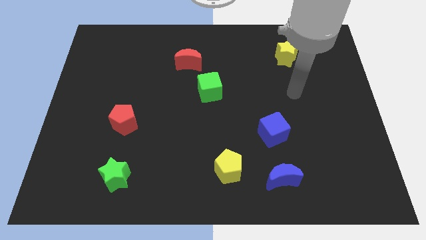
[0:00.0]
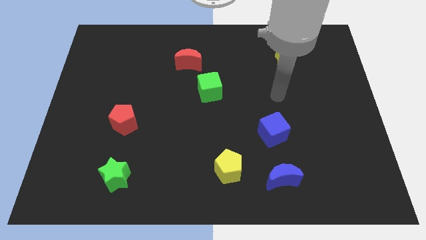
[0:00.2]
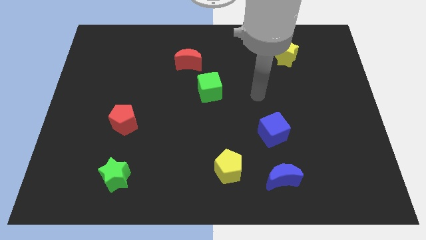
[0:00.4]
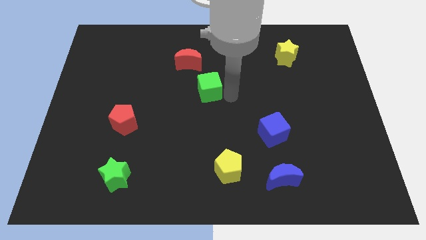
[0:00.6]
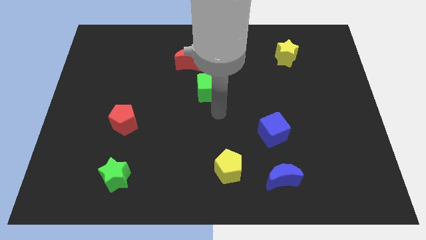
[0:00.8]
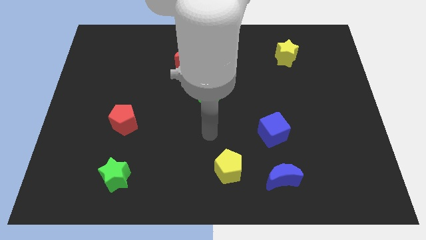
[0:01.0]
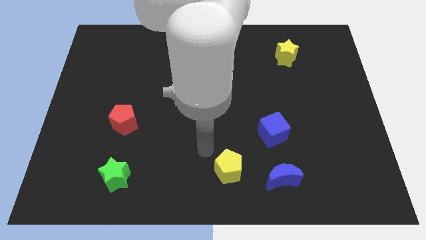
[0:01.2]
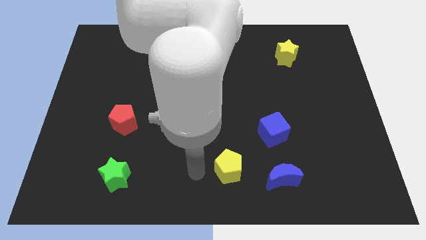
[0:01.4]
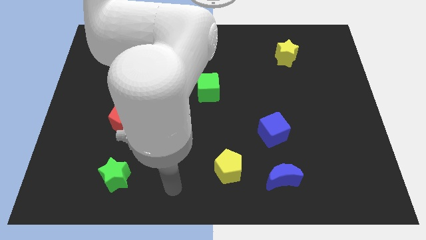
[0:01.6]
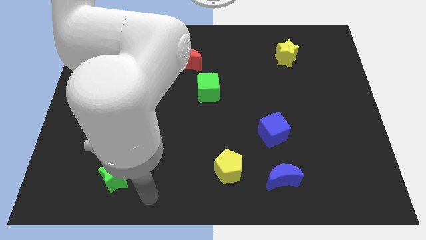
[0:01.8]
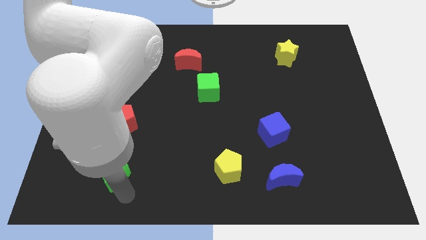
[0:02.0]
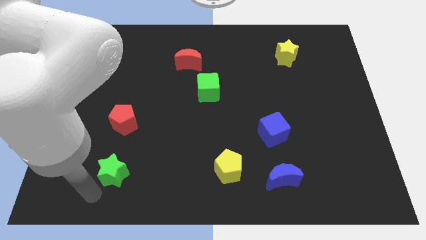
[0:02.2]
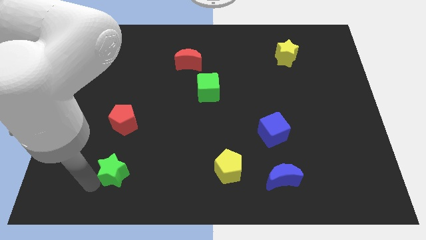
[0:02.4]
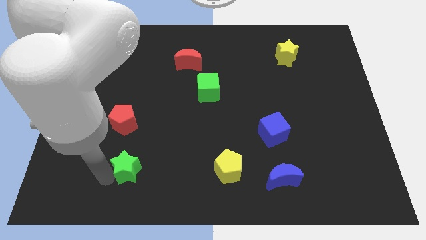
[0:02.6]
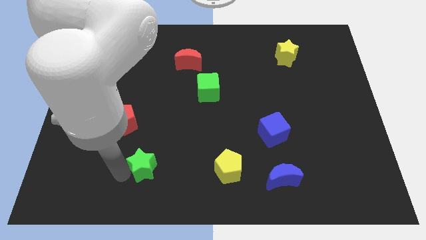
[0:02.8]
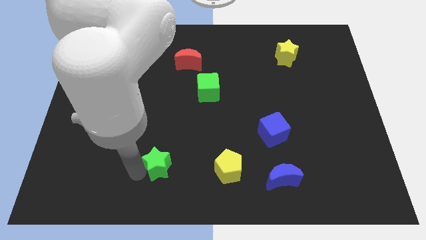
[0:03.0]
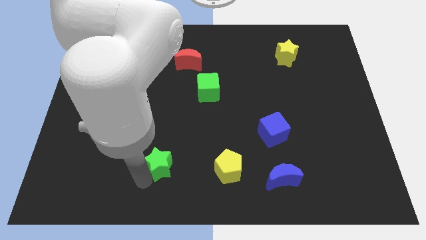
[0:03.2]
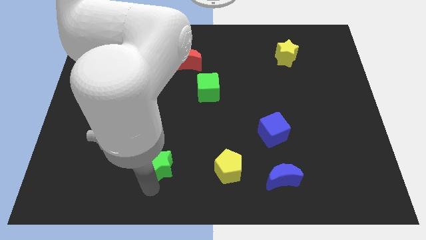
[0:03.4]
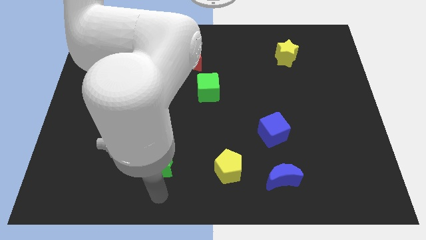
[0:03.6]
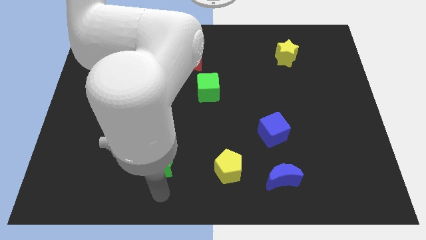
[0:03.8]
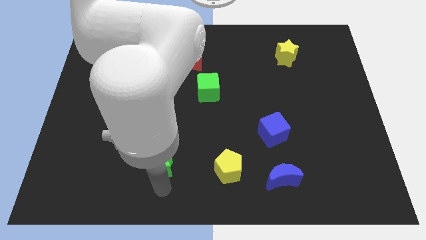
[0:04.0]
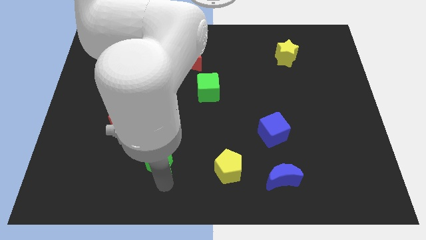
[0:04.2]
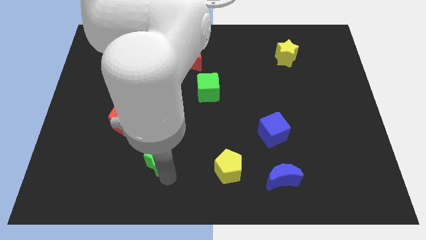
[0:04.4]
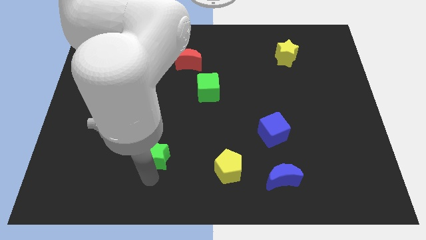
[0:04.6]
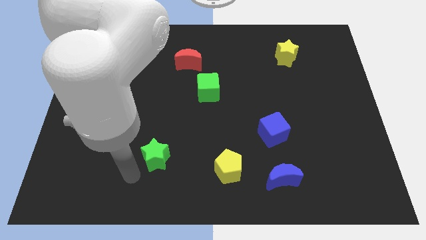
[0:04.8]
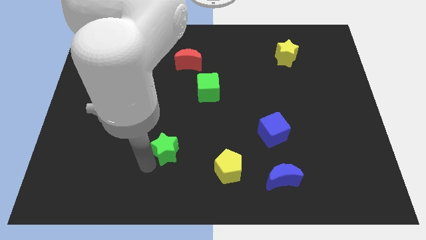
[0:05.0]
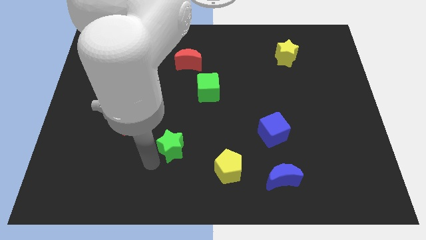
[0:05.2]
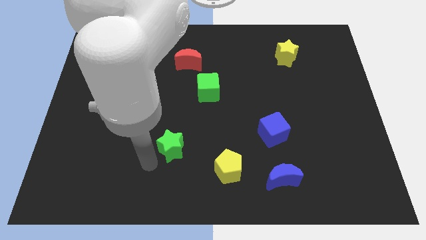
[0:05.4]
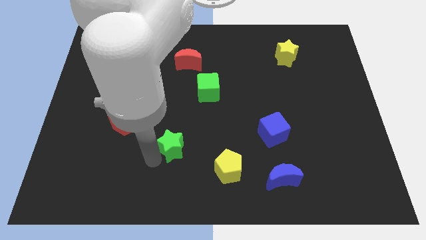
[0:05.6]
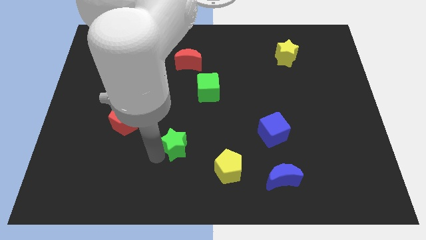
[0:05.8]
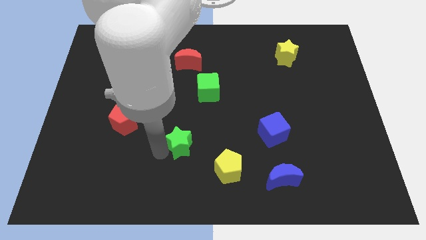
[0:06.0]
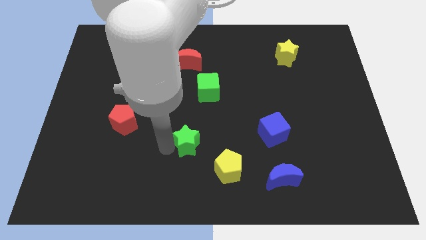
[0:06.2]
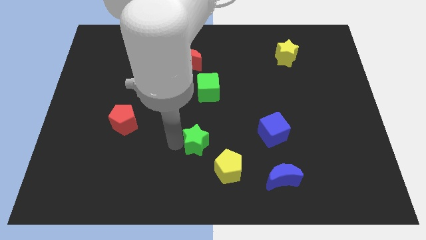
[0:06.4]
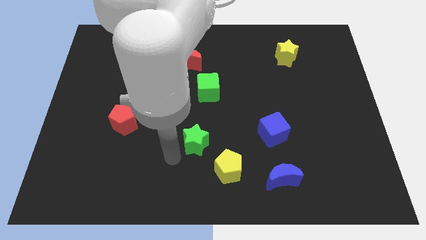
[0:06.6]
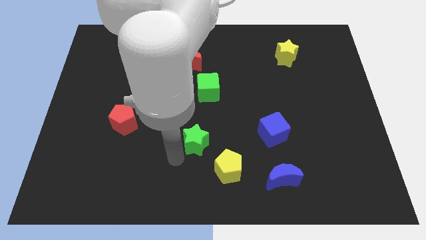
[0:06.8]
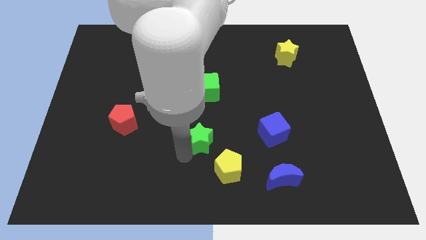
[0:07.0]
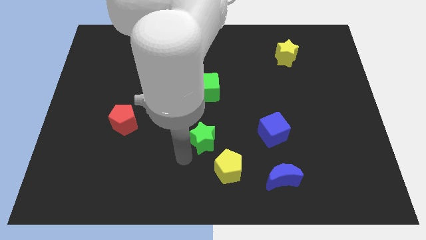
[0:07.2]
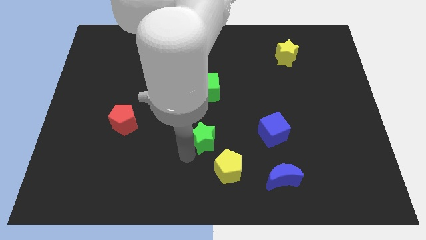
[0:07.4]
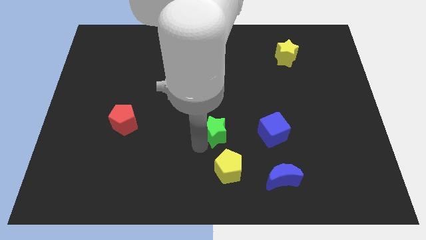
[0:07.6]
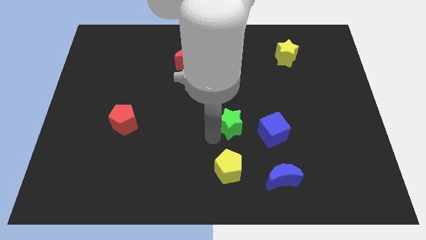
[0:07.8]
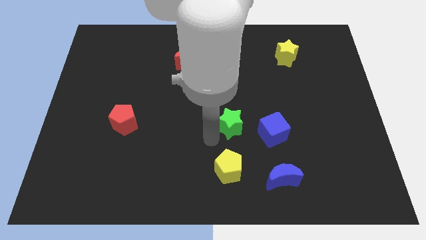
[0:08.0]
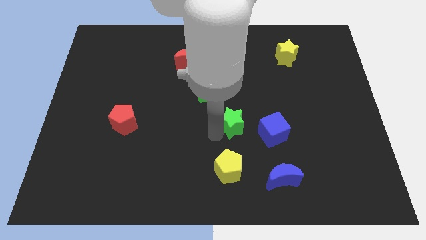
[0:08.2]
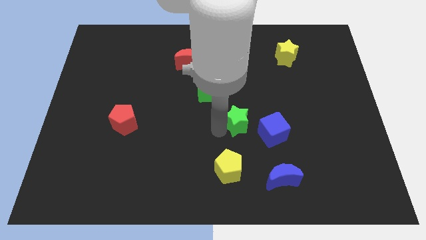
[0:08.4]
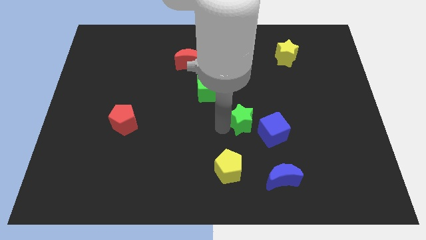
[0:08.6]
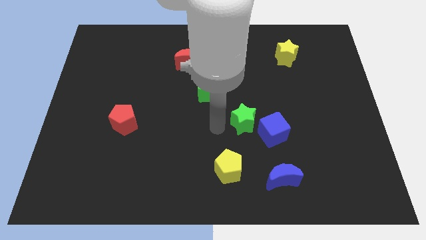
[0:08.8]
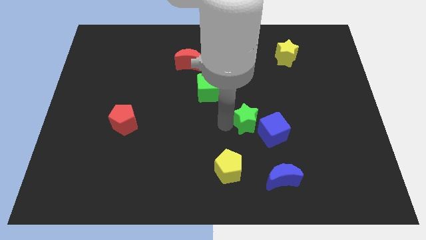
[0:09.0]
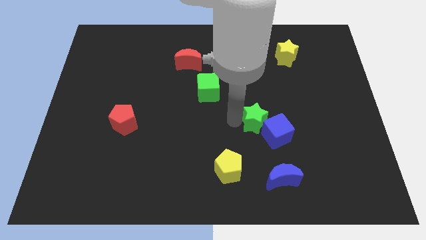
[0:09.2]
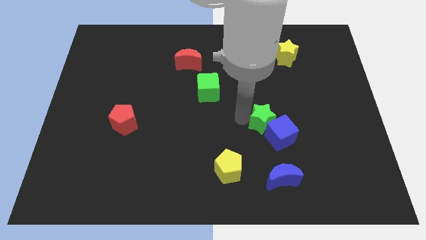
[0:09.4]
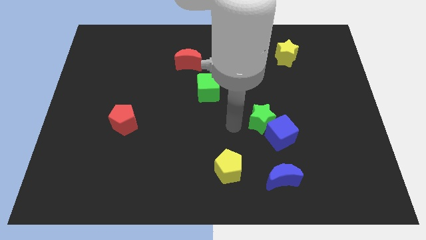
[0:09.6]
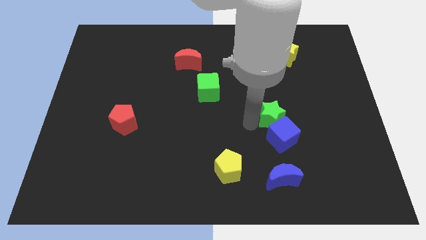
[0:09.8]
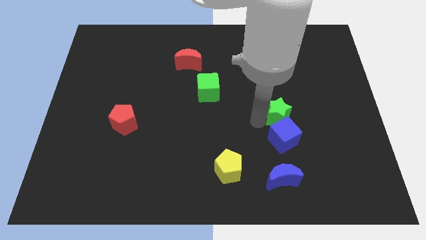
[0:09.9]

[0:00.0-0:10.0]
put the green star to the top right of the blue cube

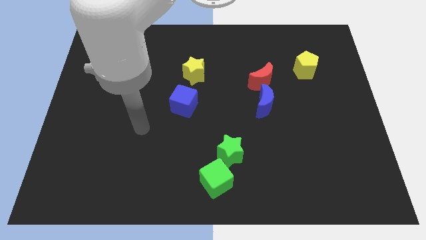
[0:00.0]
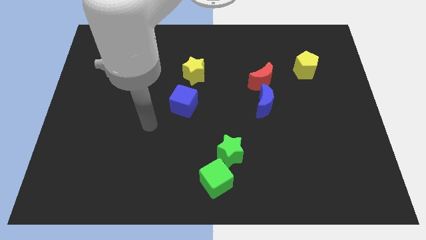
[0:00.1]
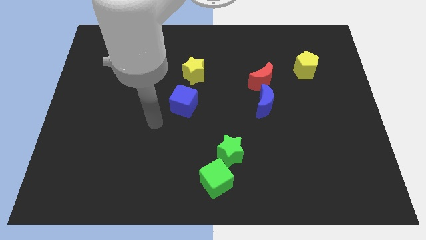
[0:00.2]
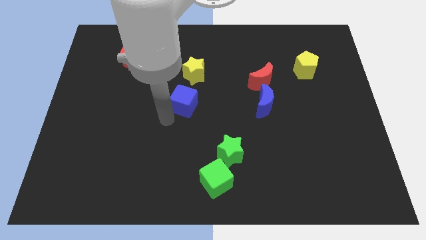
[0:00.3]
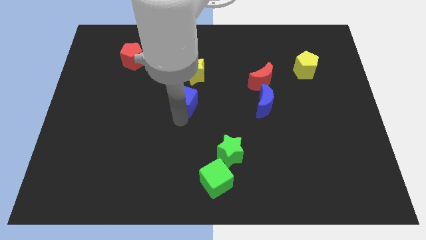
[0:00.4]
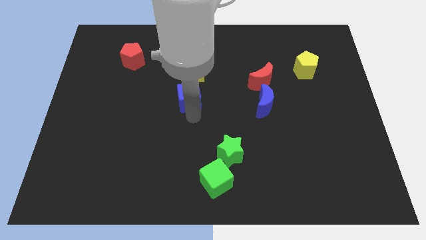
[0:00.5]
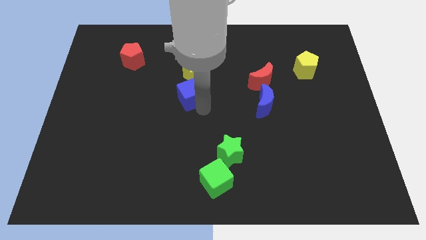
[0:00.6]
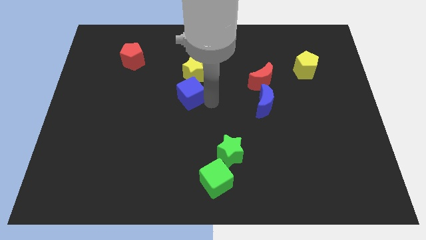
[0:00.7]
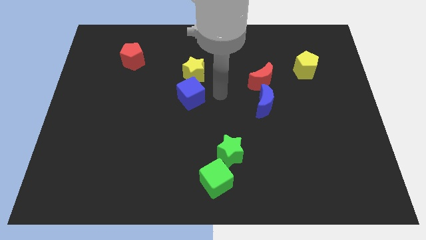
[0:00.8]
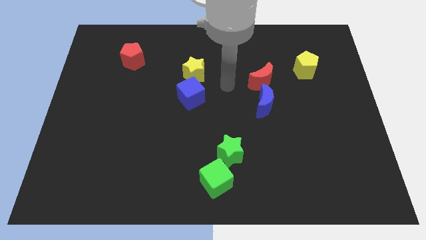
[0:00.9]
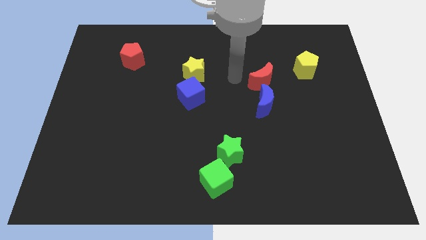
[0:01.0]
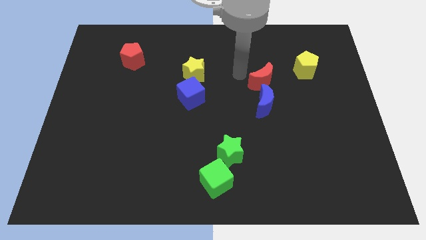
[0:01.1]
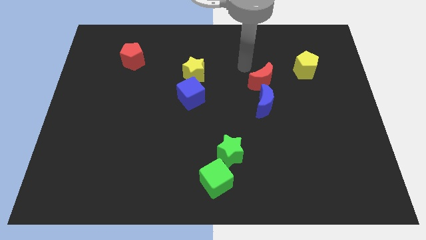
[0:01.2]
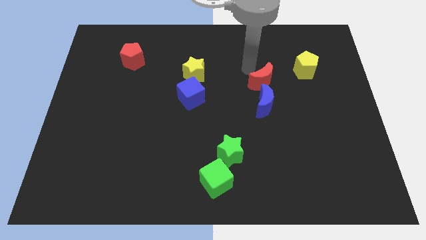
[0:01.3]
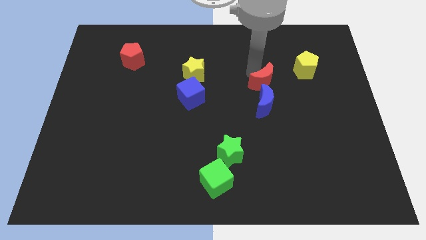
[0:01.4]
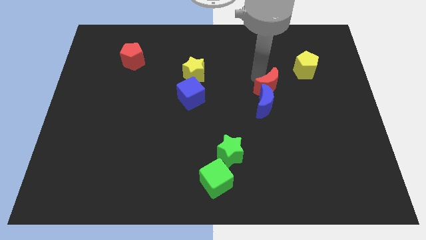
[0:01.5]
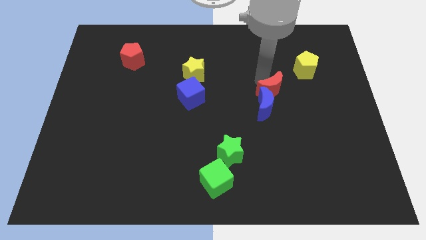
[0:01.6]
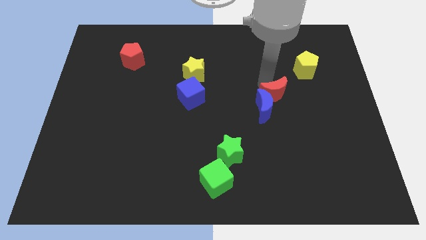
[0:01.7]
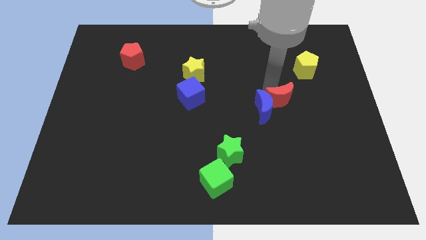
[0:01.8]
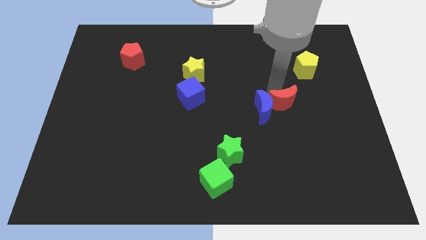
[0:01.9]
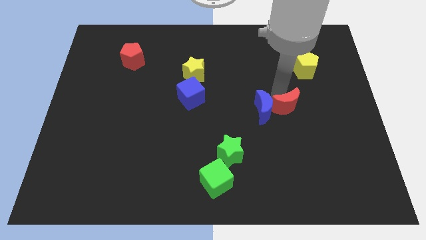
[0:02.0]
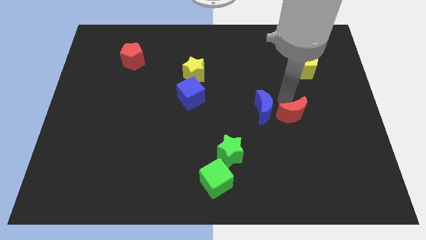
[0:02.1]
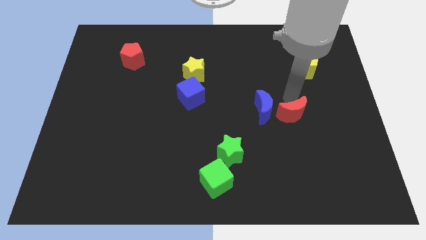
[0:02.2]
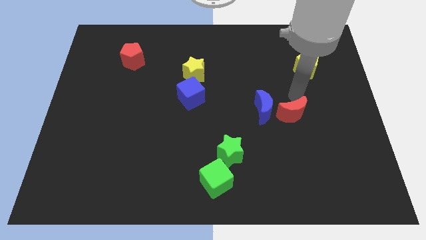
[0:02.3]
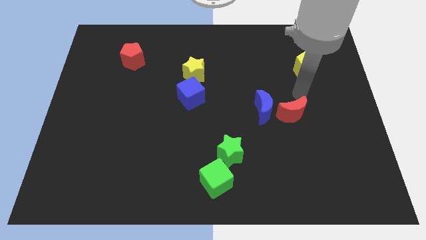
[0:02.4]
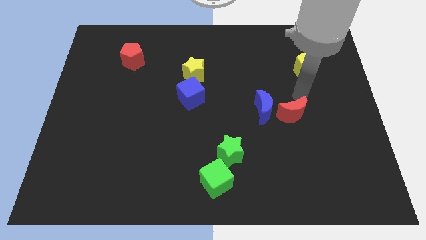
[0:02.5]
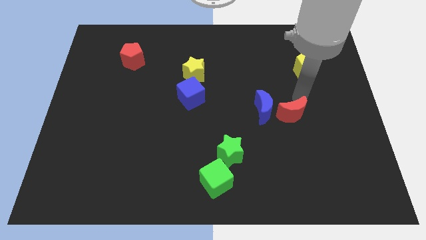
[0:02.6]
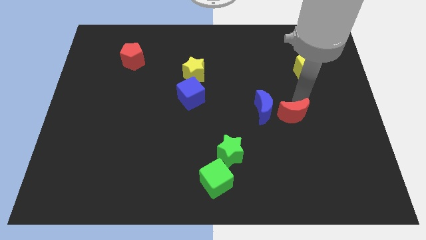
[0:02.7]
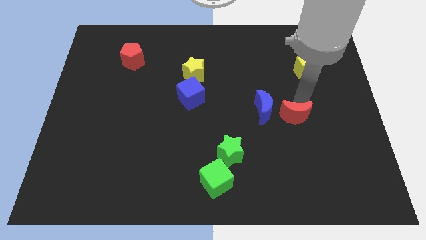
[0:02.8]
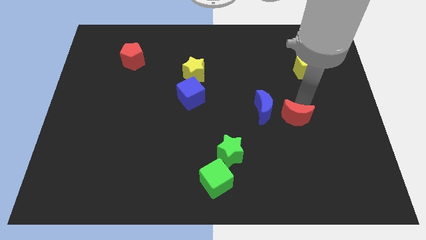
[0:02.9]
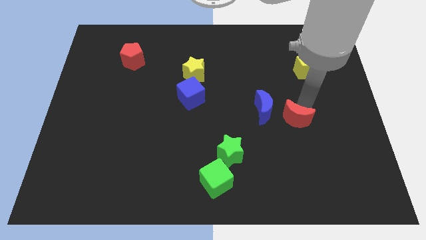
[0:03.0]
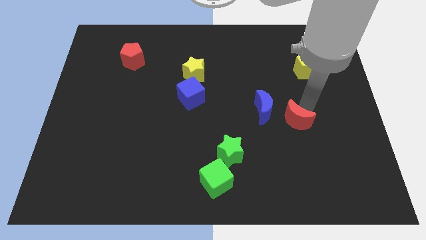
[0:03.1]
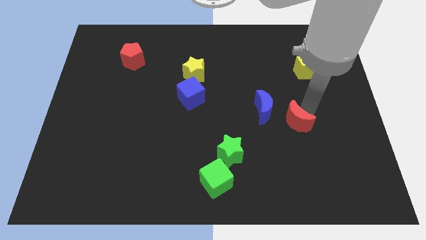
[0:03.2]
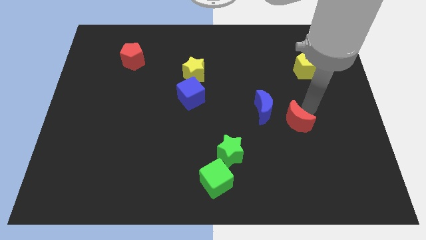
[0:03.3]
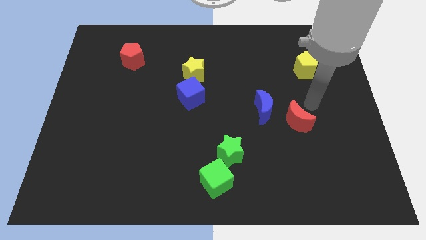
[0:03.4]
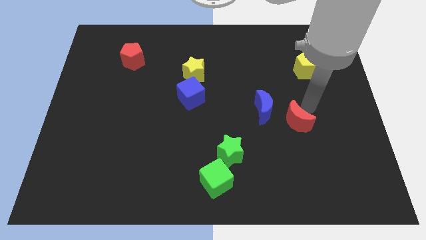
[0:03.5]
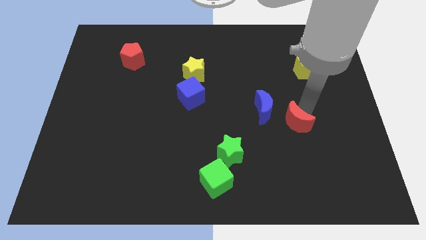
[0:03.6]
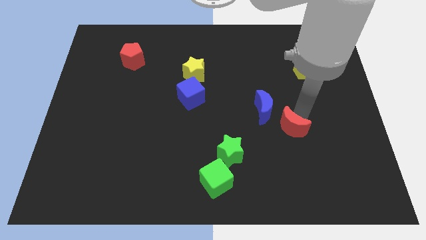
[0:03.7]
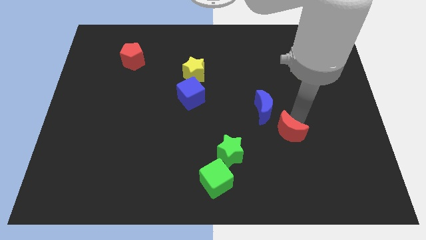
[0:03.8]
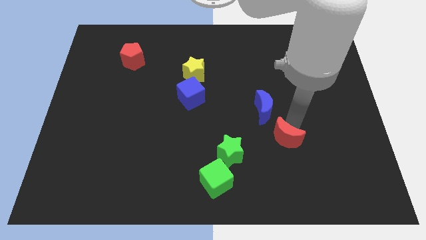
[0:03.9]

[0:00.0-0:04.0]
push the red moon to the right of the green star
